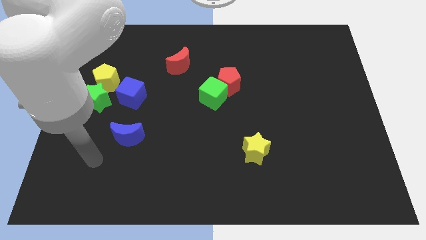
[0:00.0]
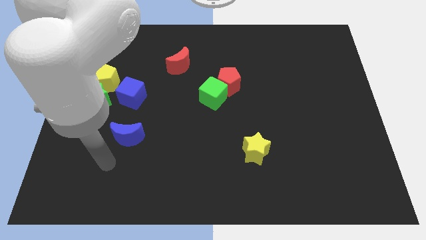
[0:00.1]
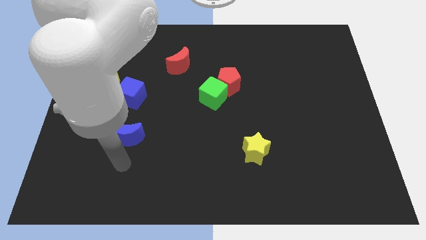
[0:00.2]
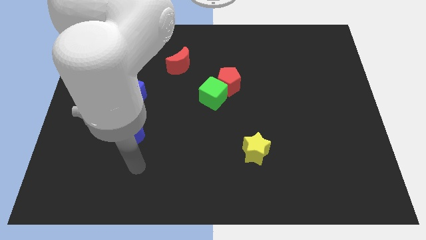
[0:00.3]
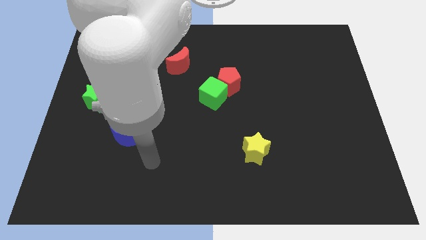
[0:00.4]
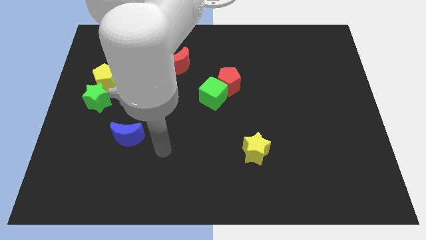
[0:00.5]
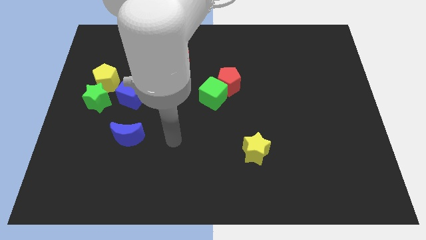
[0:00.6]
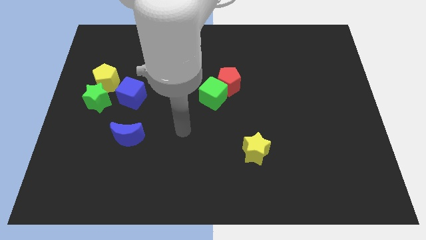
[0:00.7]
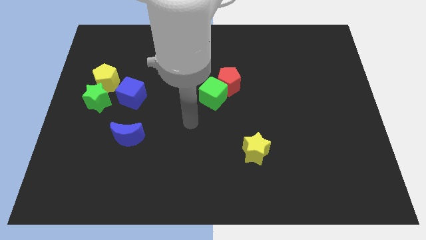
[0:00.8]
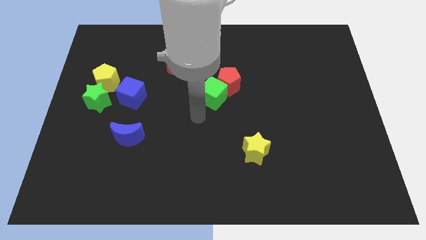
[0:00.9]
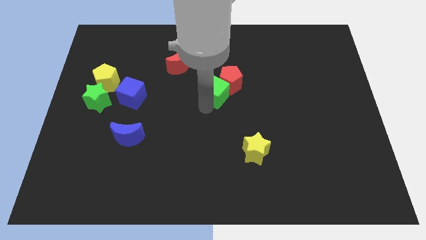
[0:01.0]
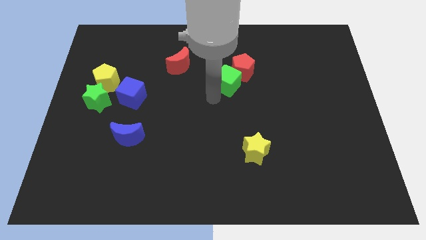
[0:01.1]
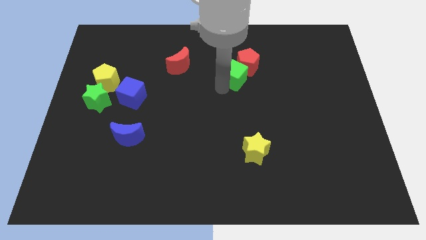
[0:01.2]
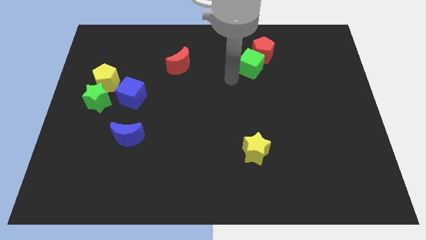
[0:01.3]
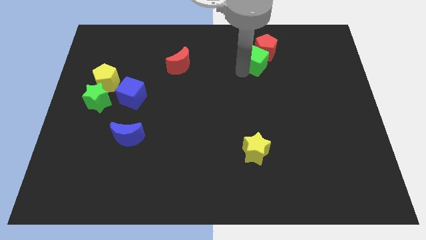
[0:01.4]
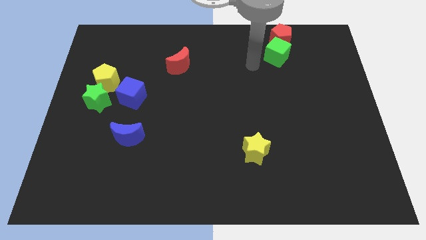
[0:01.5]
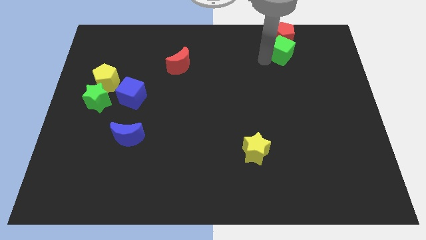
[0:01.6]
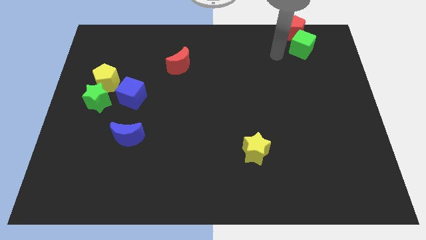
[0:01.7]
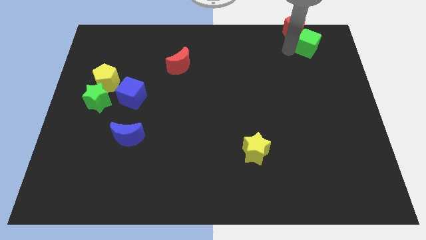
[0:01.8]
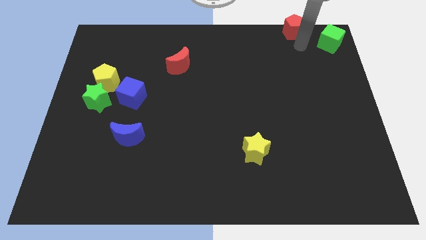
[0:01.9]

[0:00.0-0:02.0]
move the red pentagon away from the green cube

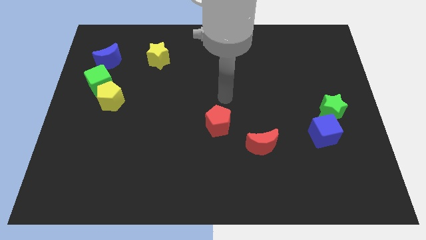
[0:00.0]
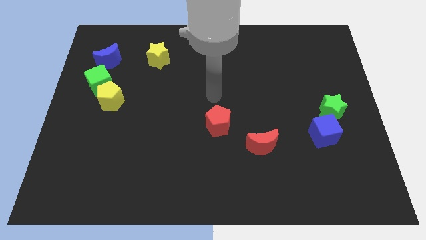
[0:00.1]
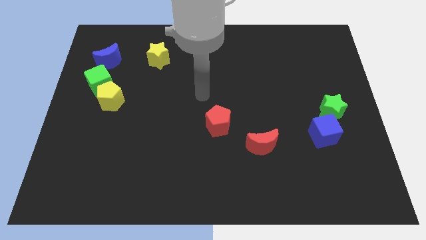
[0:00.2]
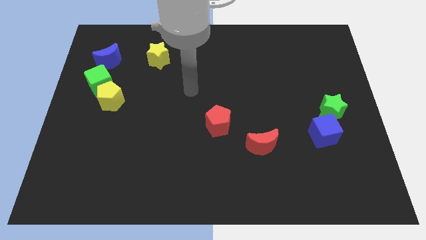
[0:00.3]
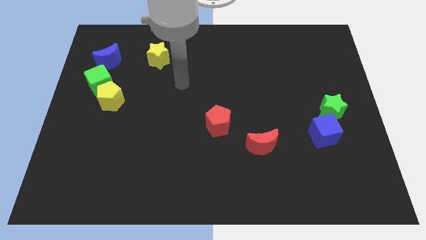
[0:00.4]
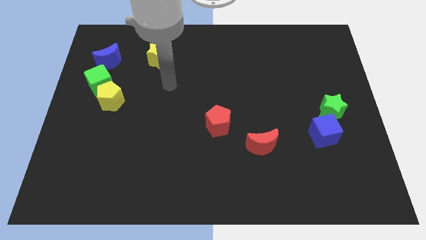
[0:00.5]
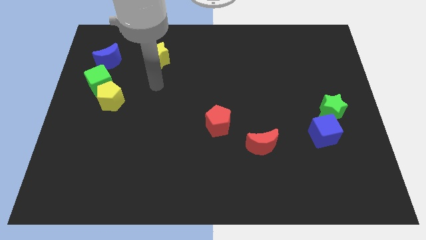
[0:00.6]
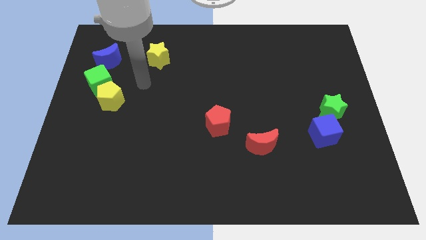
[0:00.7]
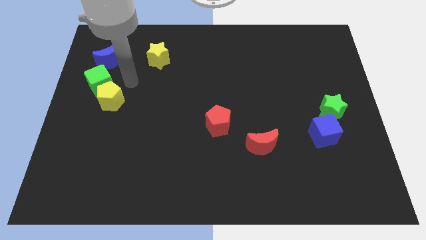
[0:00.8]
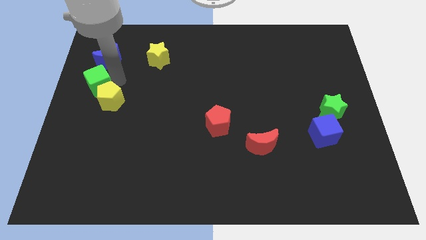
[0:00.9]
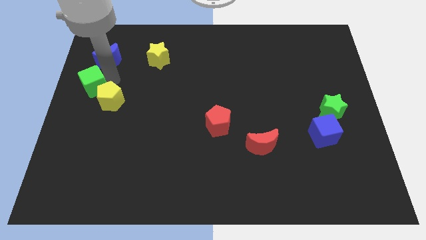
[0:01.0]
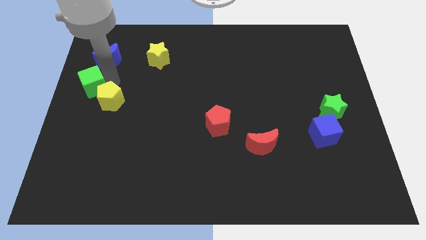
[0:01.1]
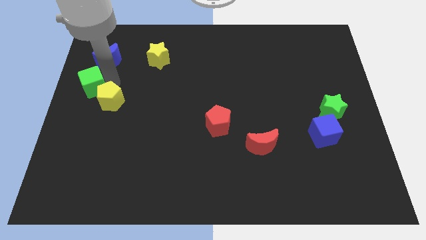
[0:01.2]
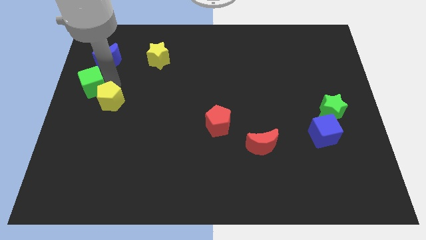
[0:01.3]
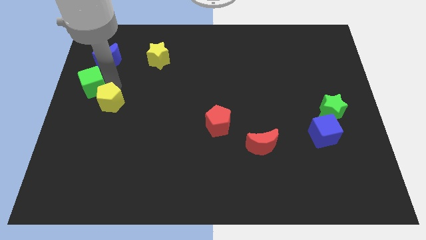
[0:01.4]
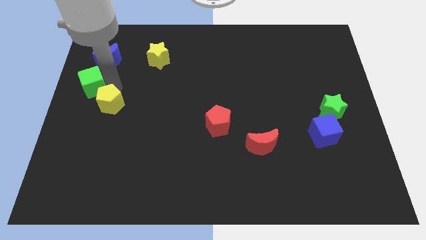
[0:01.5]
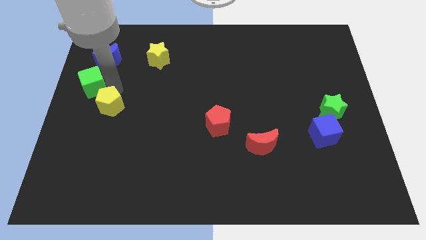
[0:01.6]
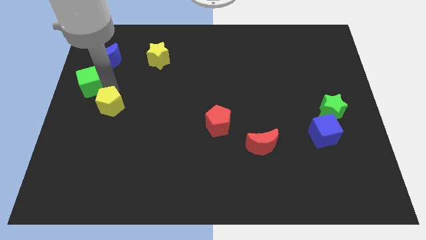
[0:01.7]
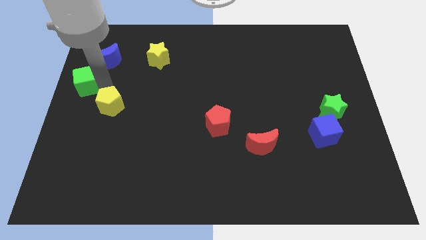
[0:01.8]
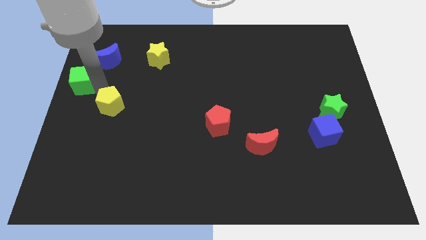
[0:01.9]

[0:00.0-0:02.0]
move the yellow pentagon away from the green cube

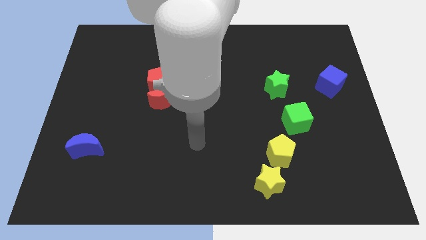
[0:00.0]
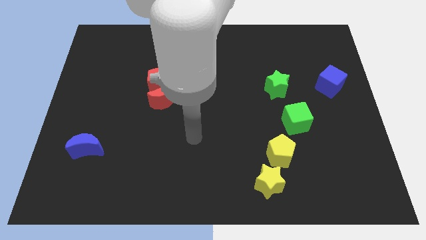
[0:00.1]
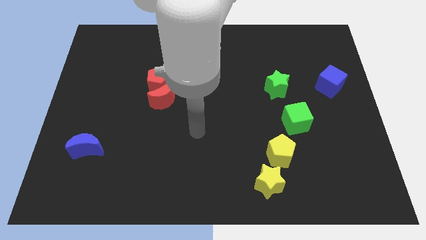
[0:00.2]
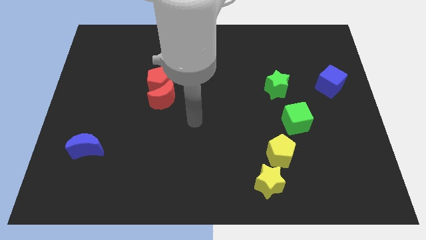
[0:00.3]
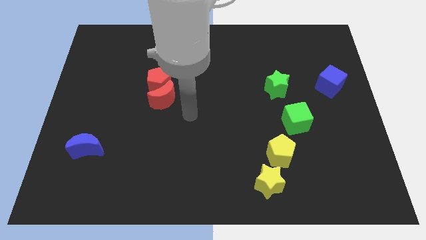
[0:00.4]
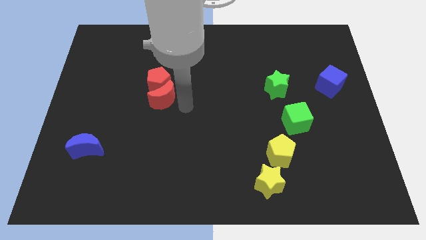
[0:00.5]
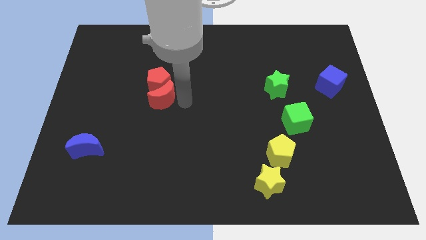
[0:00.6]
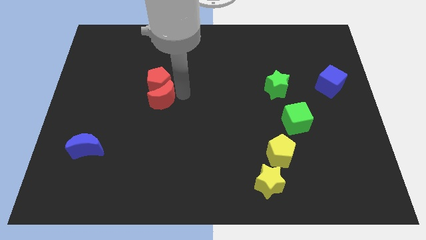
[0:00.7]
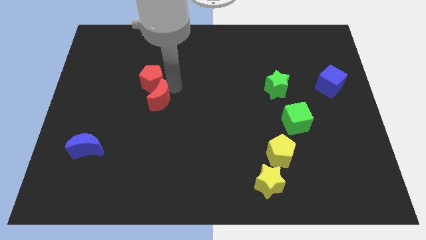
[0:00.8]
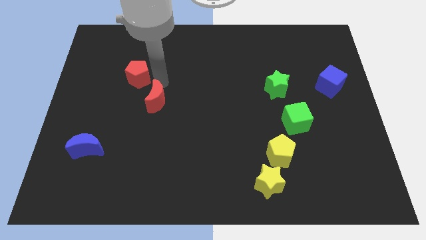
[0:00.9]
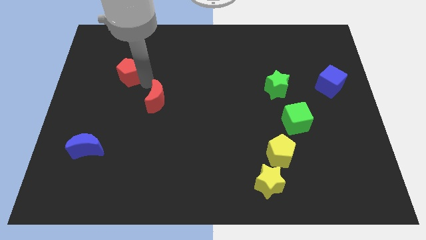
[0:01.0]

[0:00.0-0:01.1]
pull the red moon apart from the red pentagon

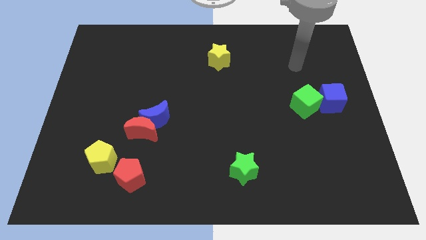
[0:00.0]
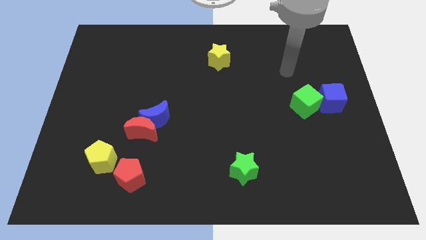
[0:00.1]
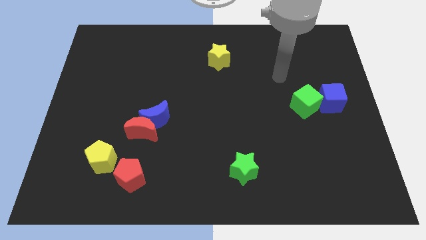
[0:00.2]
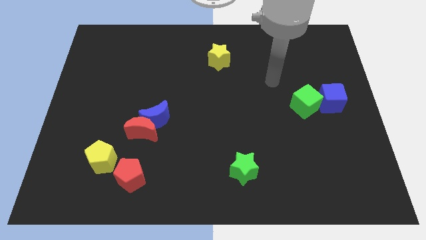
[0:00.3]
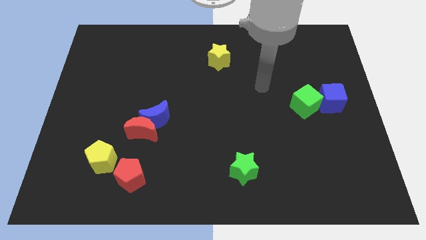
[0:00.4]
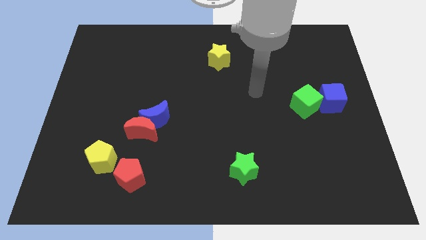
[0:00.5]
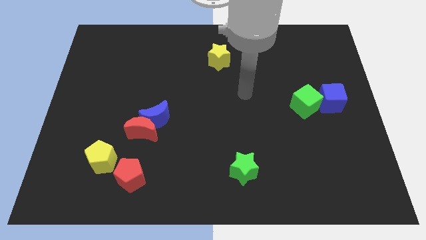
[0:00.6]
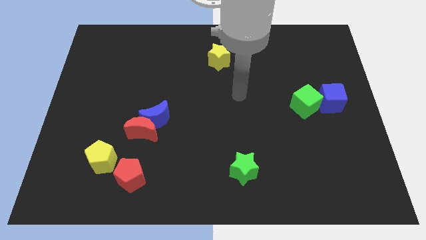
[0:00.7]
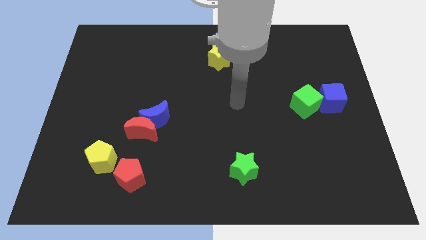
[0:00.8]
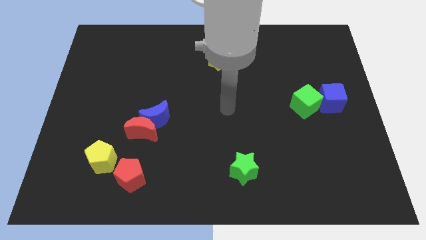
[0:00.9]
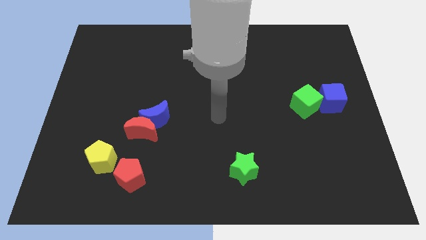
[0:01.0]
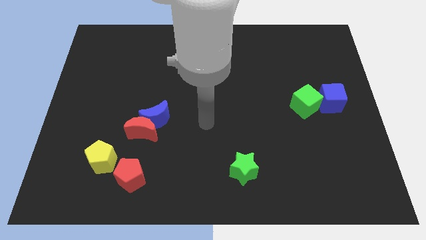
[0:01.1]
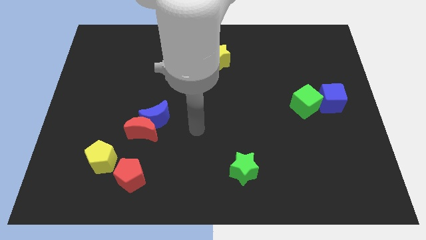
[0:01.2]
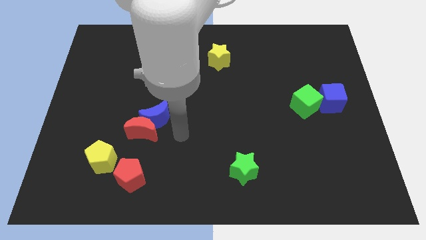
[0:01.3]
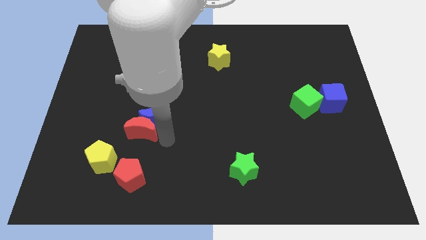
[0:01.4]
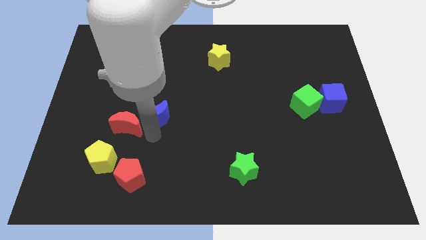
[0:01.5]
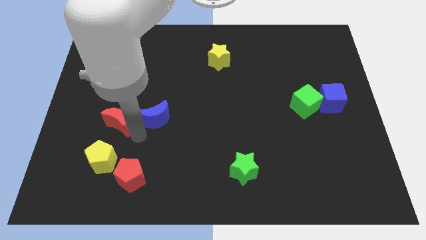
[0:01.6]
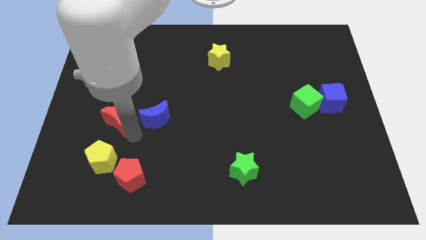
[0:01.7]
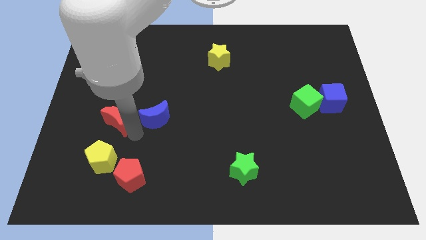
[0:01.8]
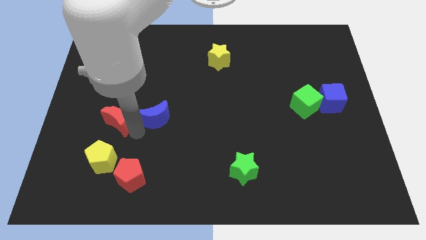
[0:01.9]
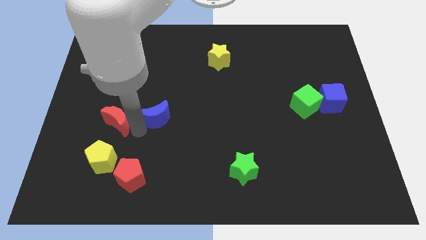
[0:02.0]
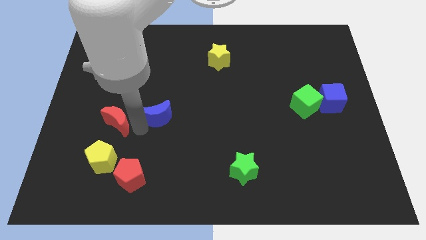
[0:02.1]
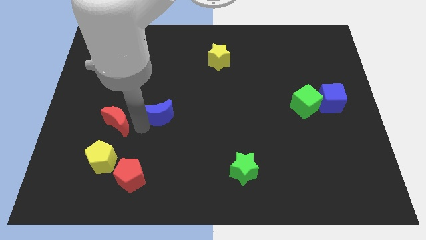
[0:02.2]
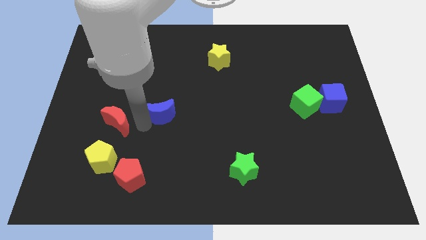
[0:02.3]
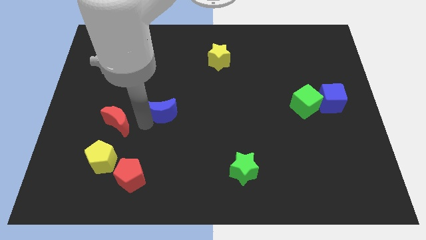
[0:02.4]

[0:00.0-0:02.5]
move the blue moon away from the red moon

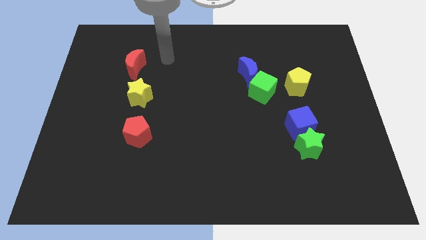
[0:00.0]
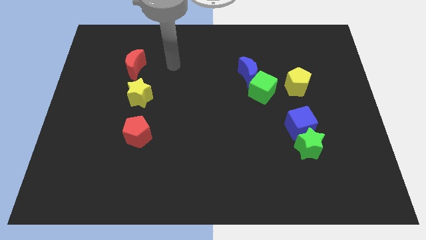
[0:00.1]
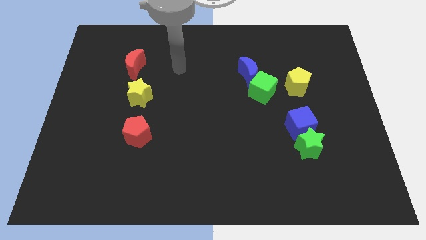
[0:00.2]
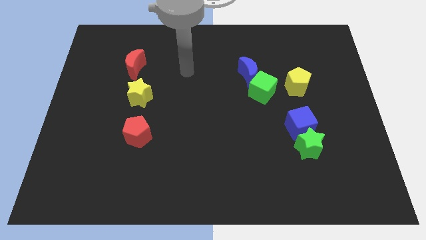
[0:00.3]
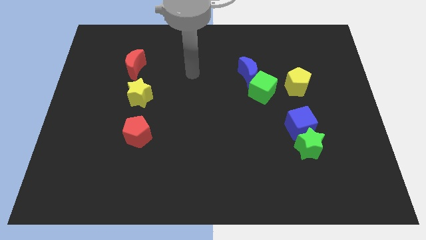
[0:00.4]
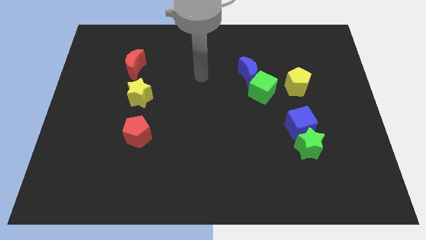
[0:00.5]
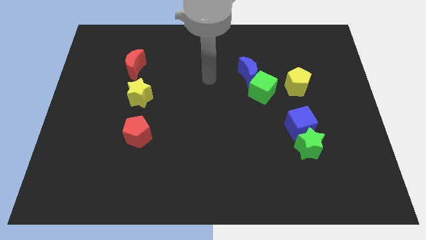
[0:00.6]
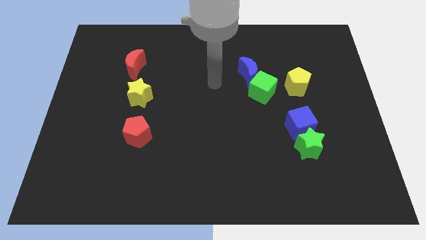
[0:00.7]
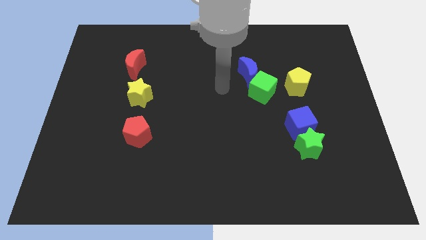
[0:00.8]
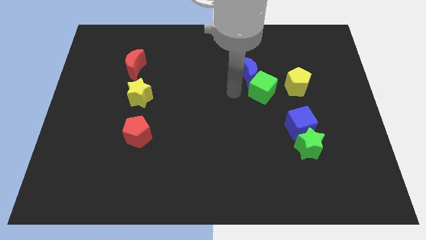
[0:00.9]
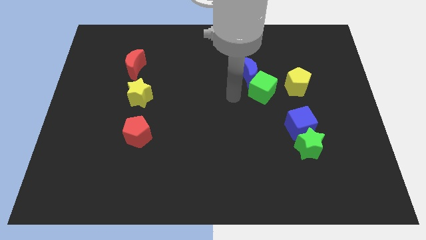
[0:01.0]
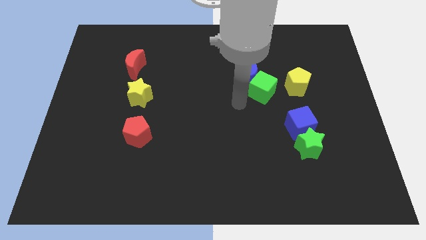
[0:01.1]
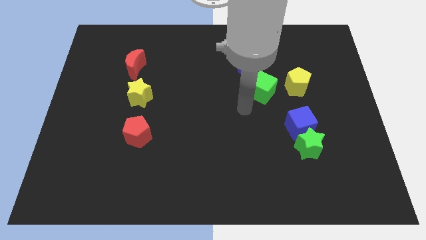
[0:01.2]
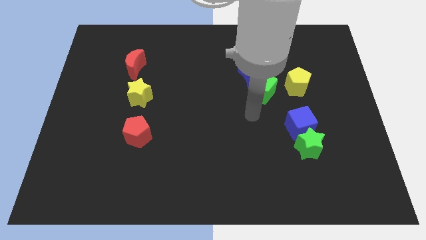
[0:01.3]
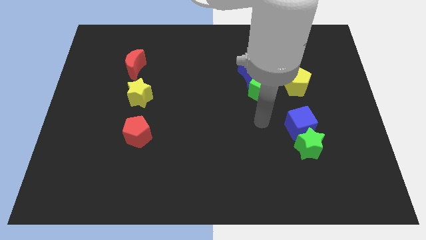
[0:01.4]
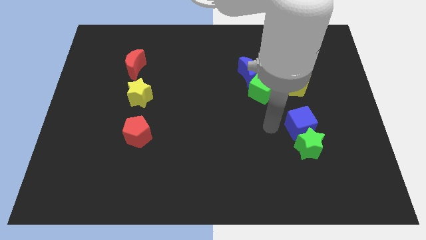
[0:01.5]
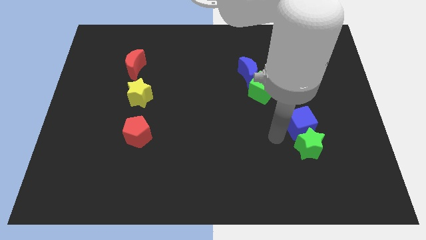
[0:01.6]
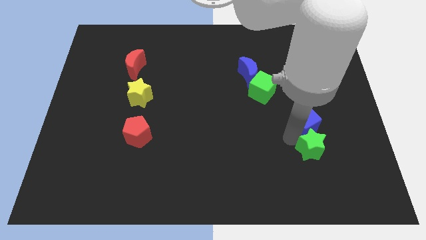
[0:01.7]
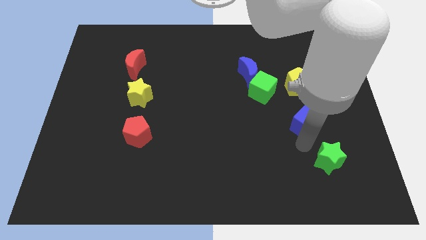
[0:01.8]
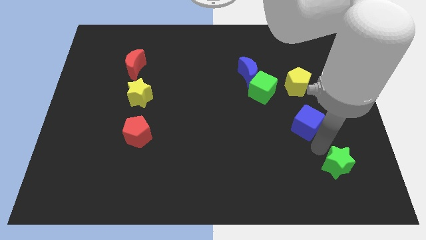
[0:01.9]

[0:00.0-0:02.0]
move the blue cube away from the green star
